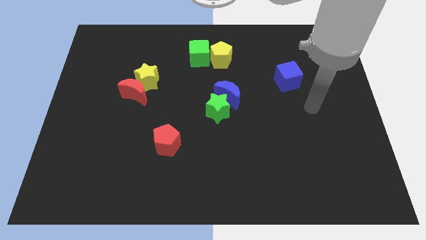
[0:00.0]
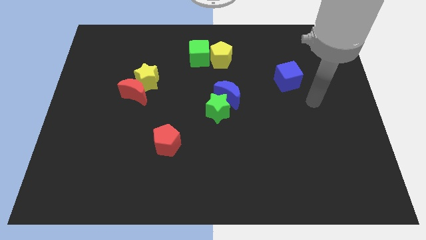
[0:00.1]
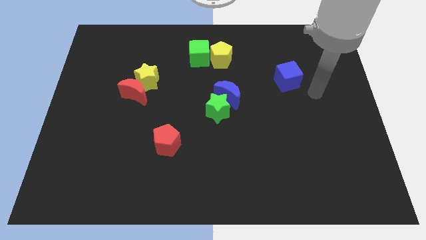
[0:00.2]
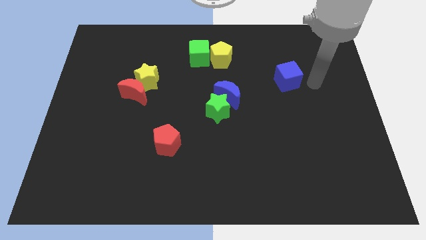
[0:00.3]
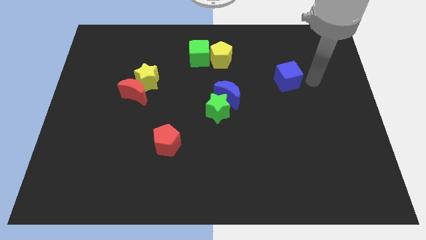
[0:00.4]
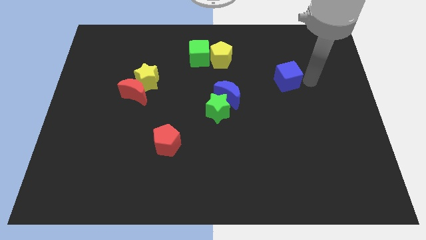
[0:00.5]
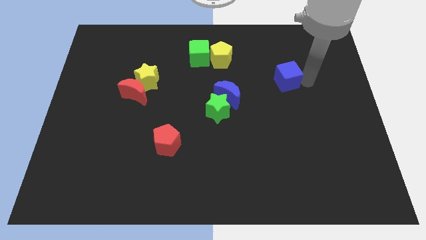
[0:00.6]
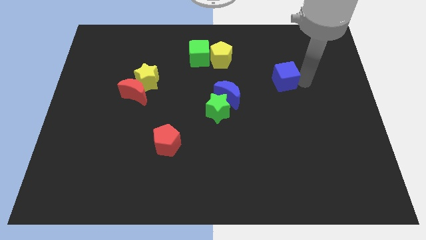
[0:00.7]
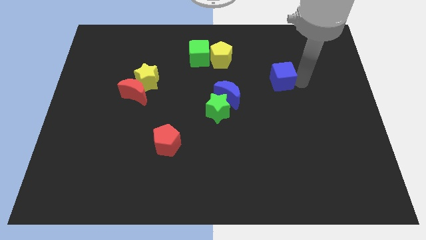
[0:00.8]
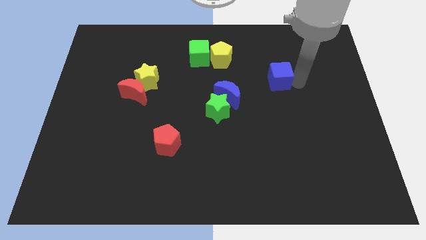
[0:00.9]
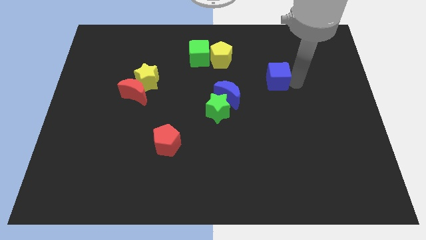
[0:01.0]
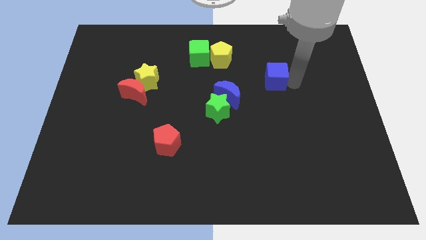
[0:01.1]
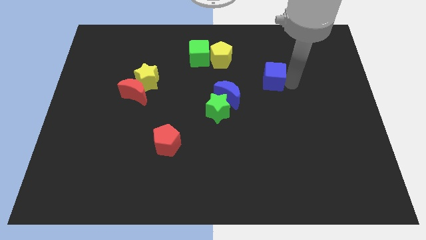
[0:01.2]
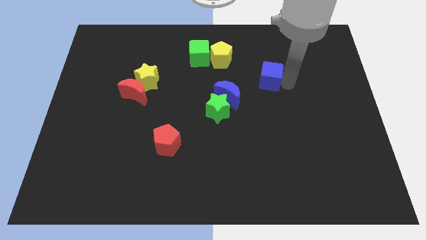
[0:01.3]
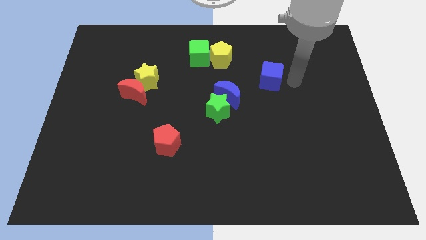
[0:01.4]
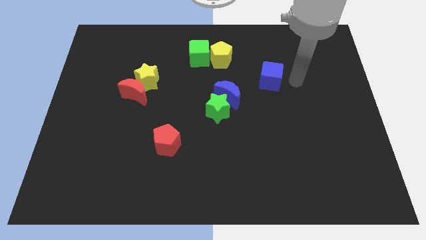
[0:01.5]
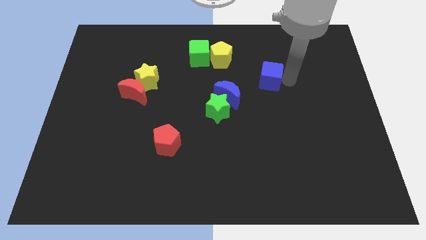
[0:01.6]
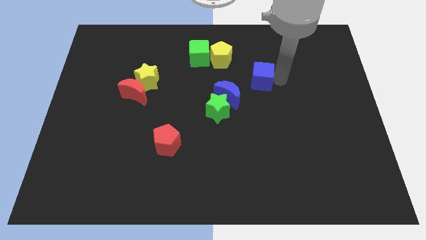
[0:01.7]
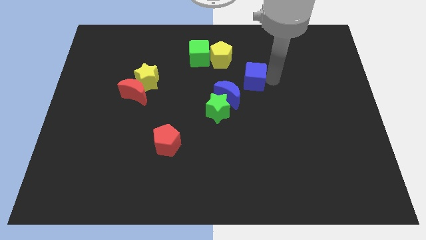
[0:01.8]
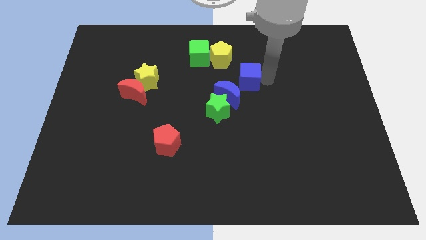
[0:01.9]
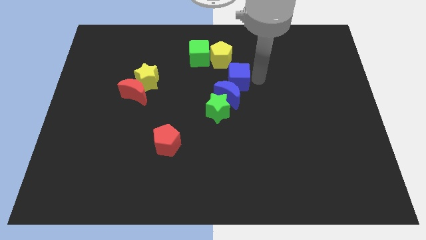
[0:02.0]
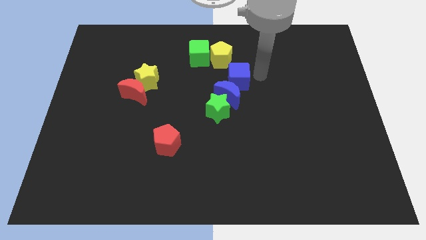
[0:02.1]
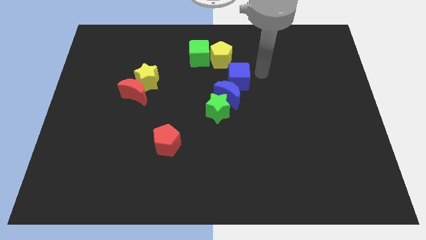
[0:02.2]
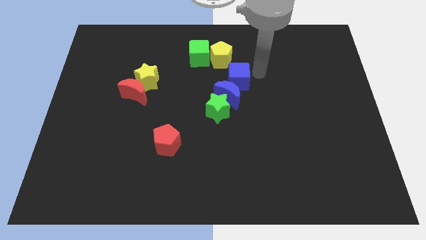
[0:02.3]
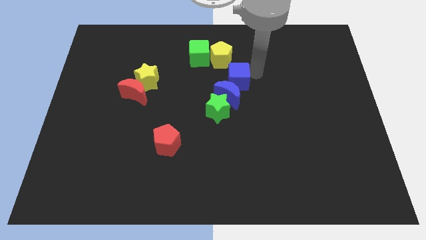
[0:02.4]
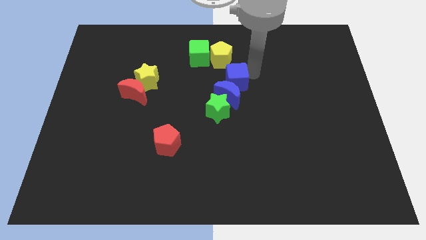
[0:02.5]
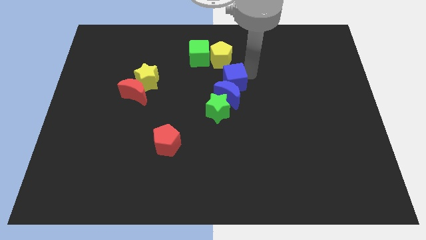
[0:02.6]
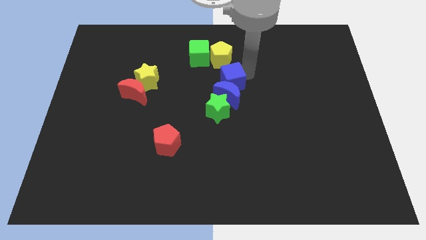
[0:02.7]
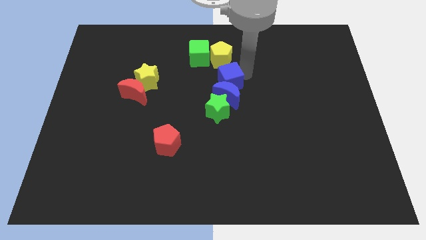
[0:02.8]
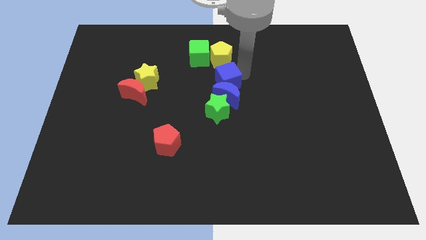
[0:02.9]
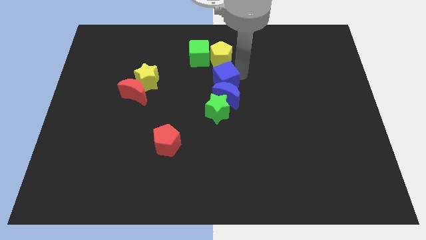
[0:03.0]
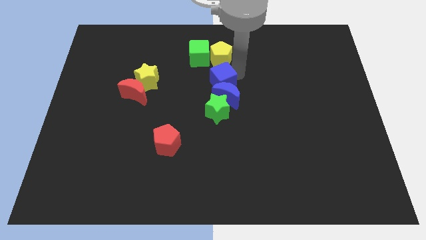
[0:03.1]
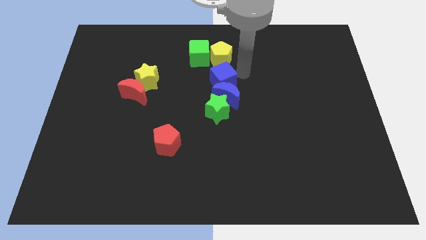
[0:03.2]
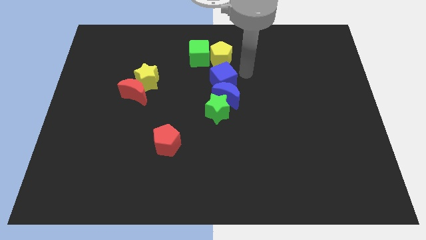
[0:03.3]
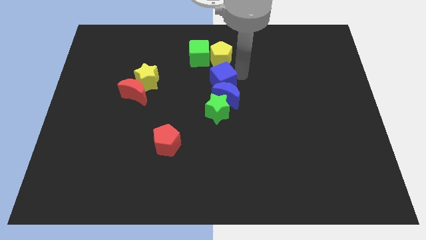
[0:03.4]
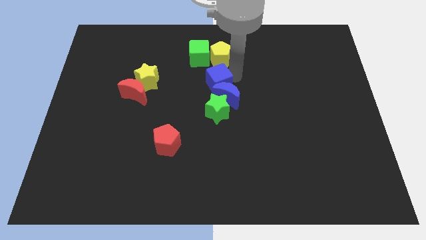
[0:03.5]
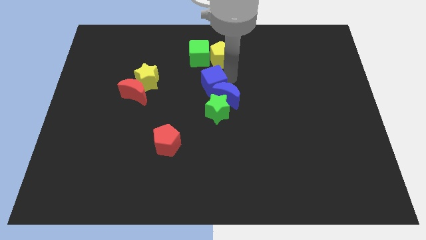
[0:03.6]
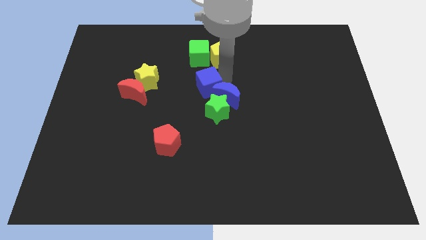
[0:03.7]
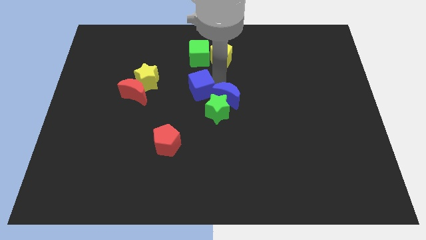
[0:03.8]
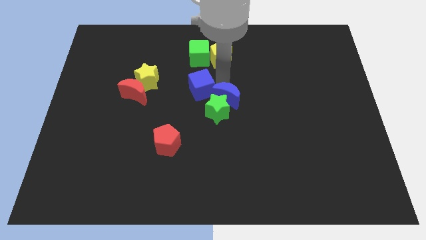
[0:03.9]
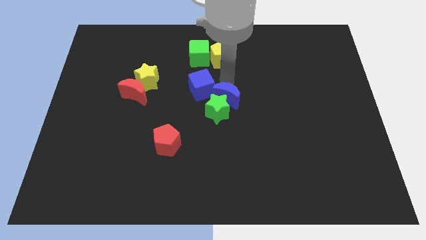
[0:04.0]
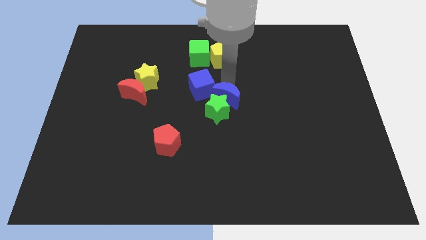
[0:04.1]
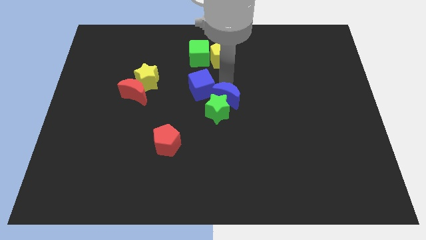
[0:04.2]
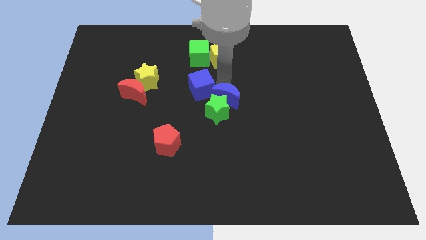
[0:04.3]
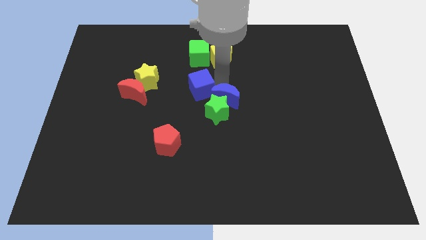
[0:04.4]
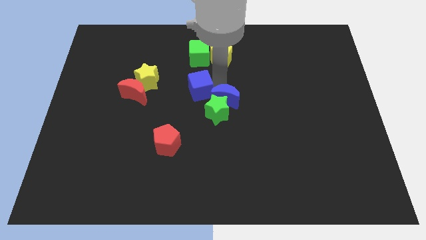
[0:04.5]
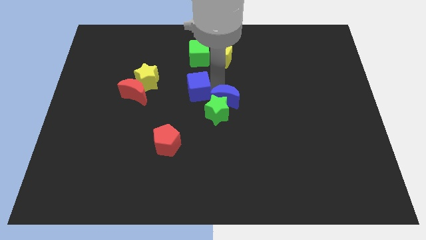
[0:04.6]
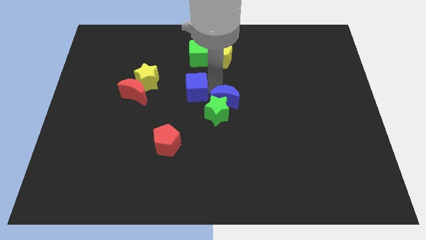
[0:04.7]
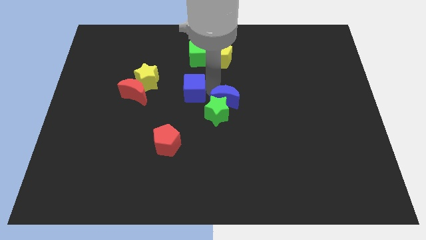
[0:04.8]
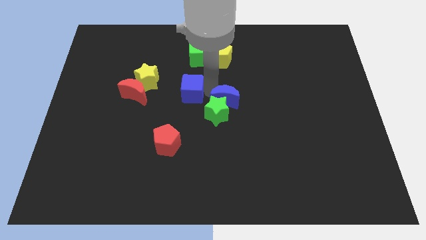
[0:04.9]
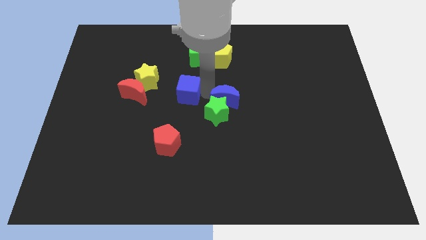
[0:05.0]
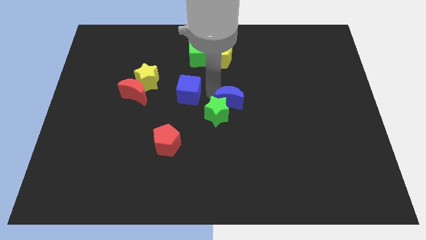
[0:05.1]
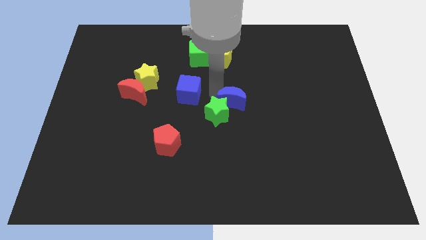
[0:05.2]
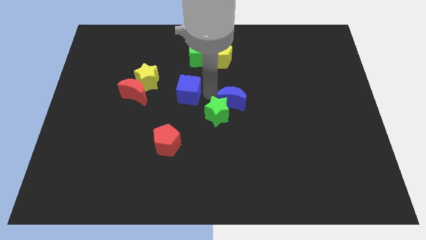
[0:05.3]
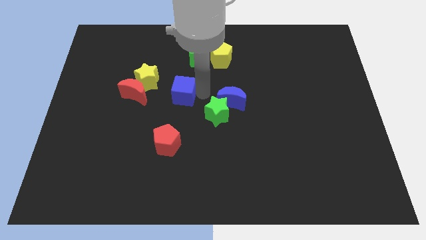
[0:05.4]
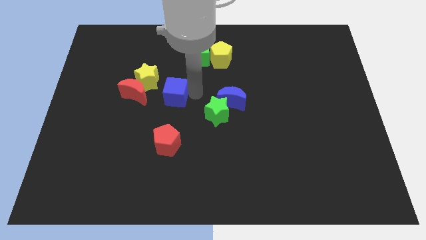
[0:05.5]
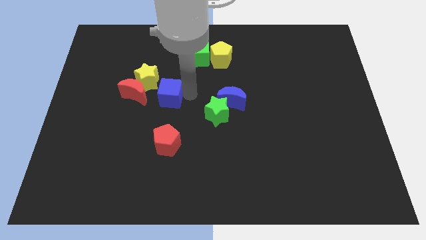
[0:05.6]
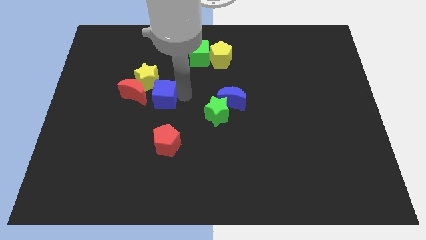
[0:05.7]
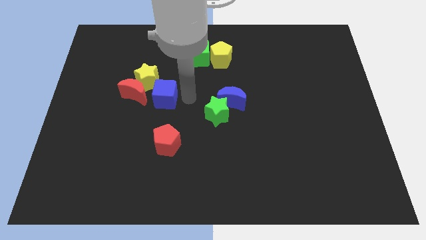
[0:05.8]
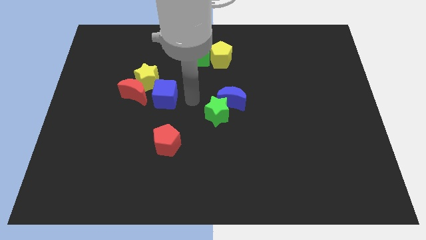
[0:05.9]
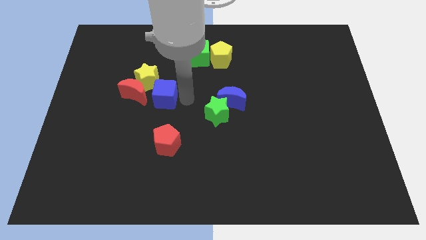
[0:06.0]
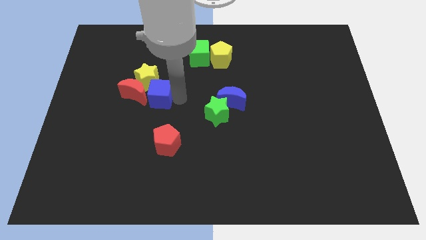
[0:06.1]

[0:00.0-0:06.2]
put the blue cube close to the red moon

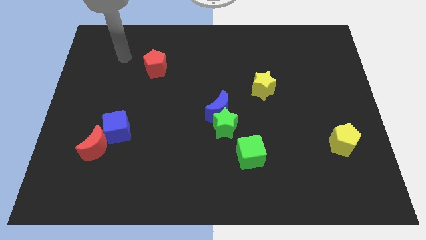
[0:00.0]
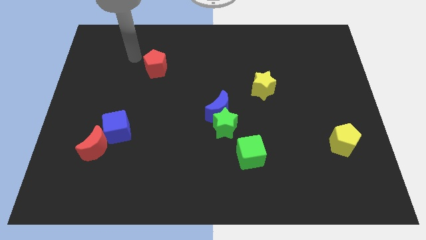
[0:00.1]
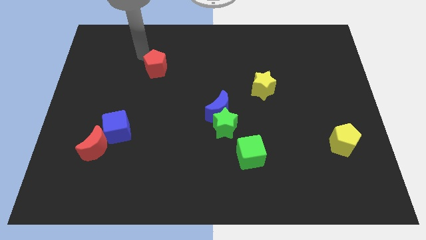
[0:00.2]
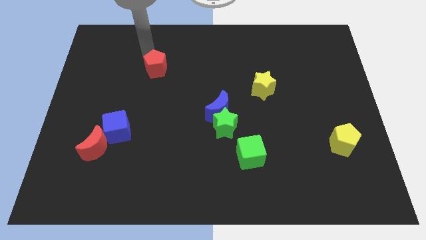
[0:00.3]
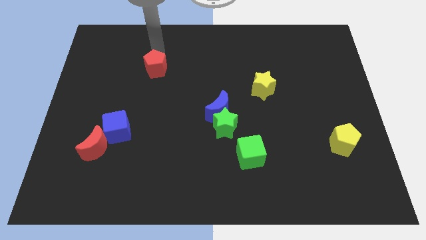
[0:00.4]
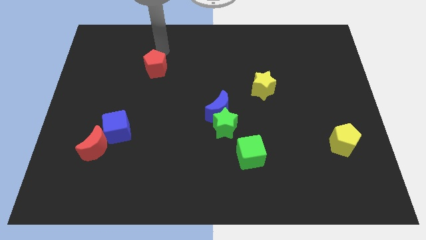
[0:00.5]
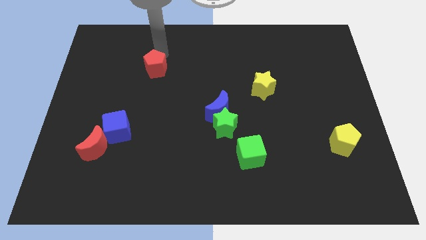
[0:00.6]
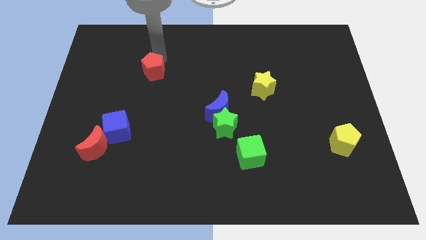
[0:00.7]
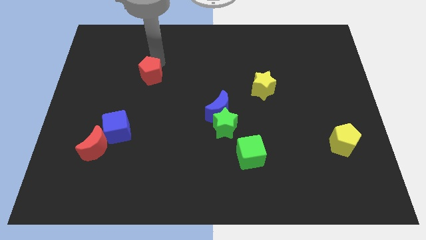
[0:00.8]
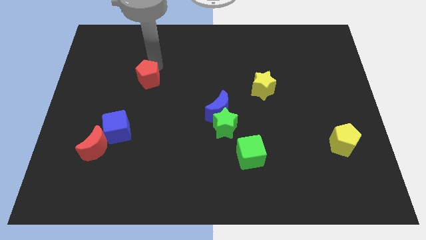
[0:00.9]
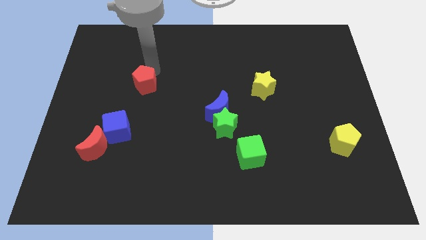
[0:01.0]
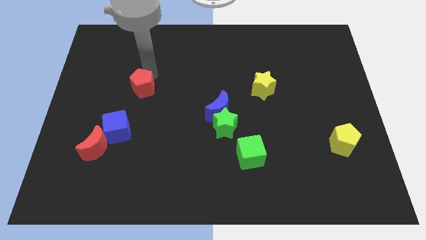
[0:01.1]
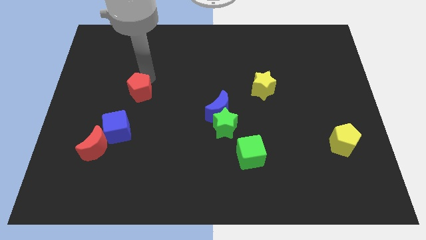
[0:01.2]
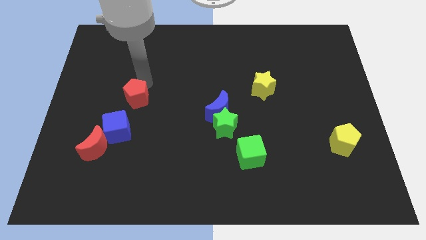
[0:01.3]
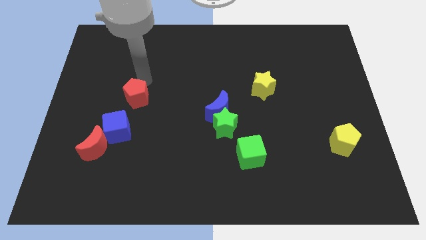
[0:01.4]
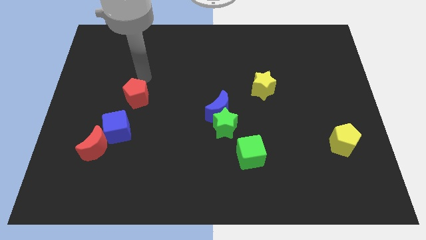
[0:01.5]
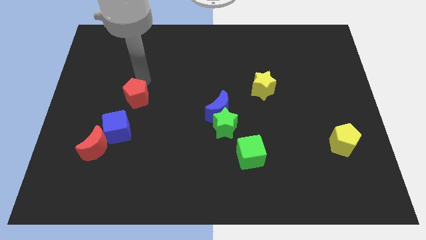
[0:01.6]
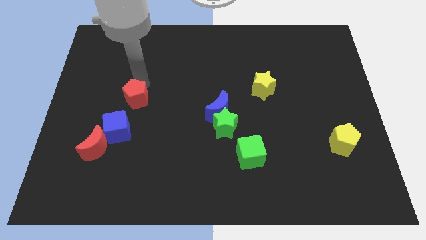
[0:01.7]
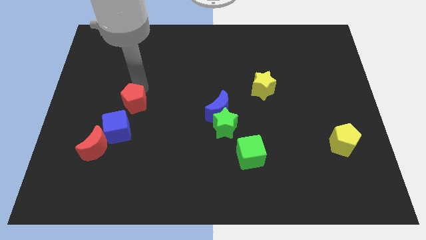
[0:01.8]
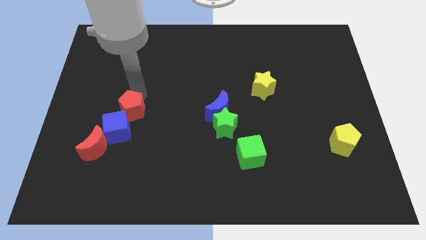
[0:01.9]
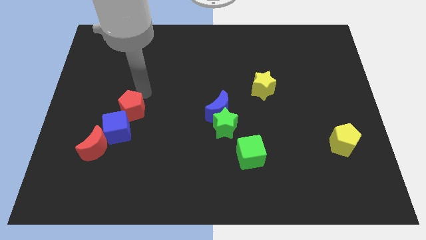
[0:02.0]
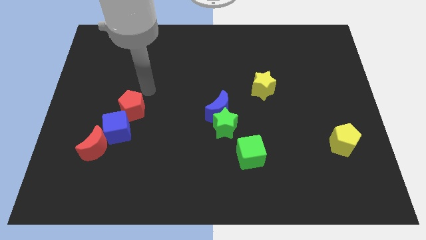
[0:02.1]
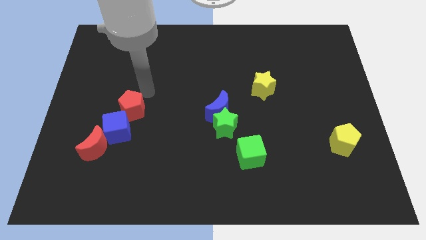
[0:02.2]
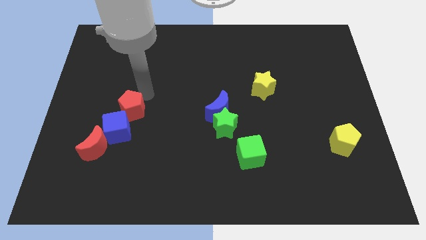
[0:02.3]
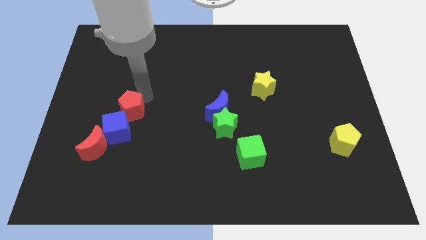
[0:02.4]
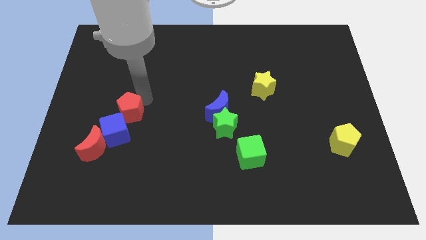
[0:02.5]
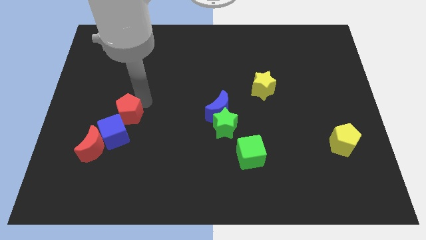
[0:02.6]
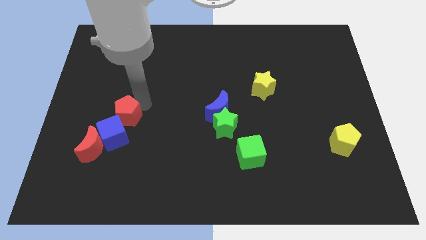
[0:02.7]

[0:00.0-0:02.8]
push the red pentagon next to the blue cube
